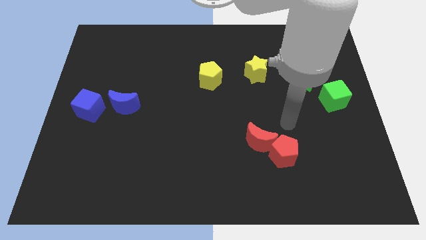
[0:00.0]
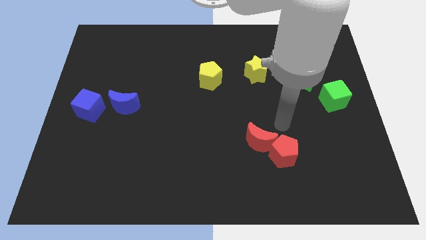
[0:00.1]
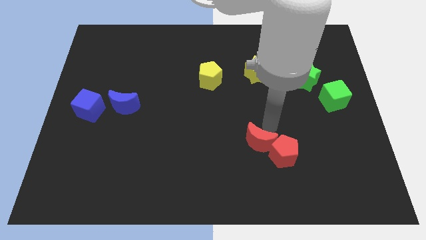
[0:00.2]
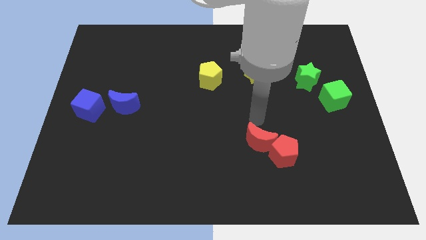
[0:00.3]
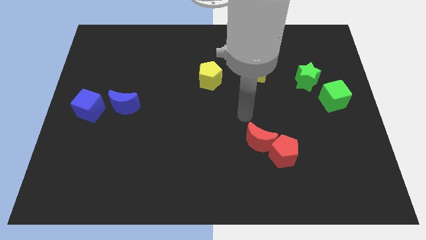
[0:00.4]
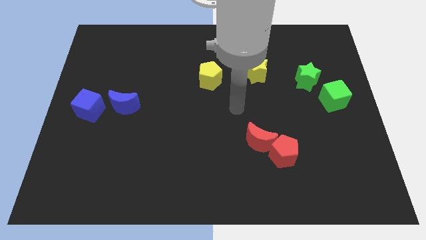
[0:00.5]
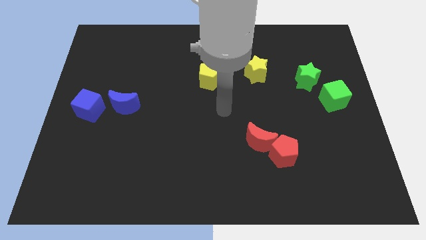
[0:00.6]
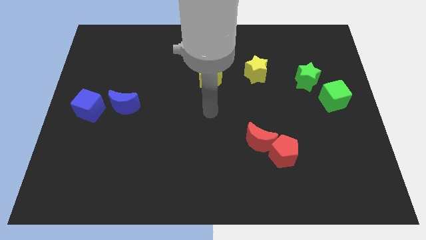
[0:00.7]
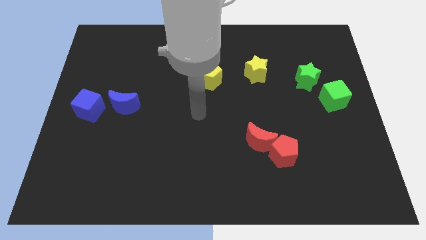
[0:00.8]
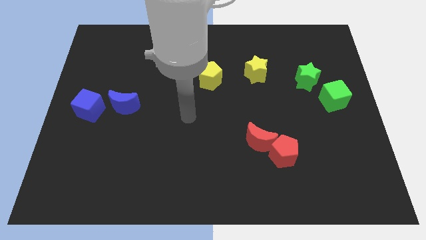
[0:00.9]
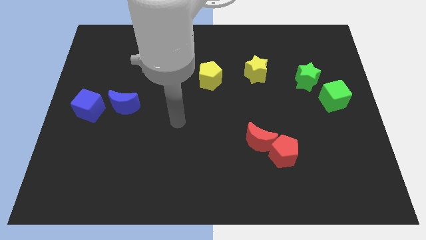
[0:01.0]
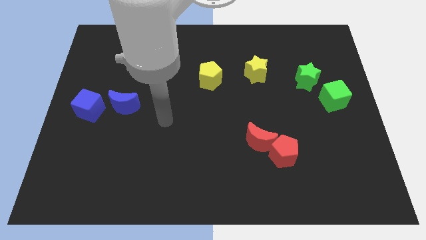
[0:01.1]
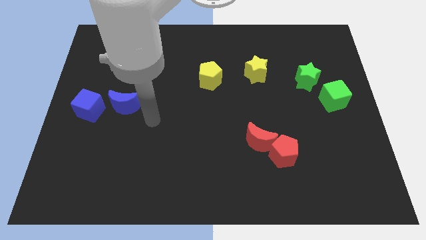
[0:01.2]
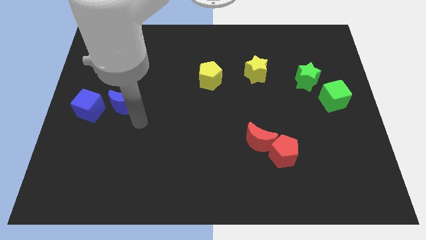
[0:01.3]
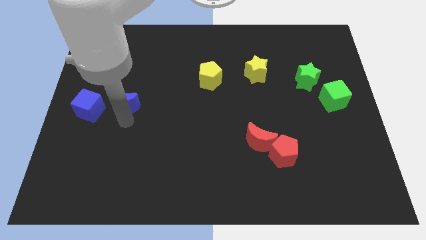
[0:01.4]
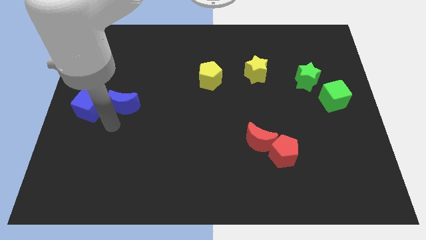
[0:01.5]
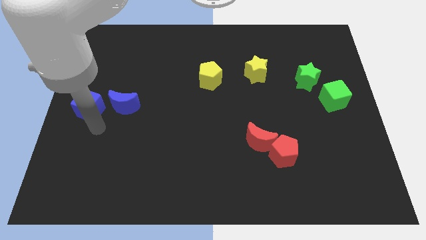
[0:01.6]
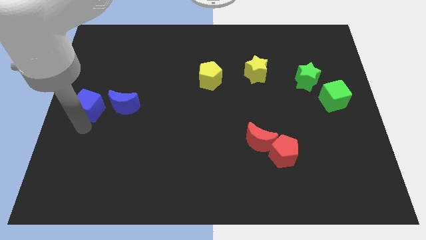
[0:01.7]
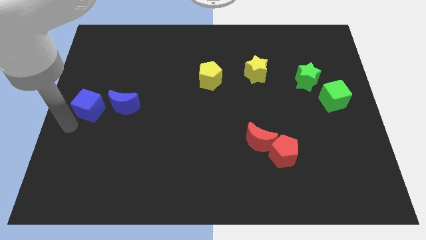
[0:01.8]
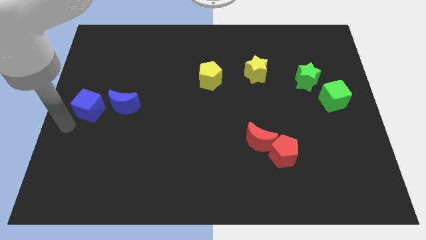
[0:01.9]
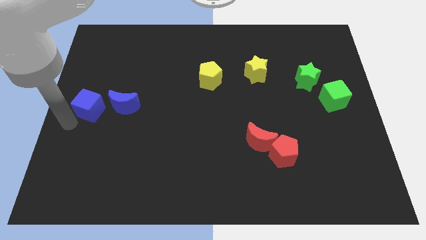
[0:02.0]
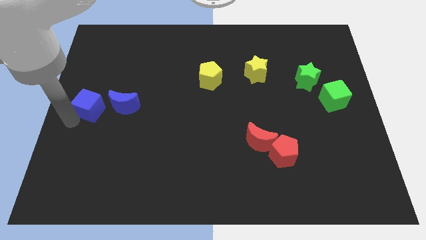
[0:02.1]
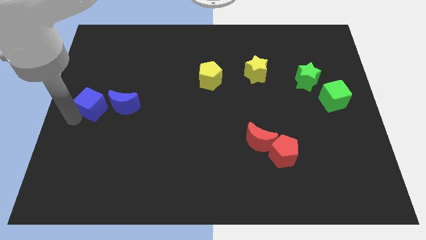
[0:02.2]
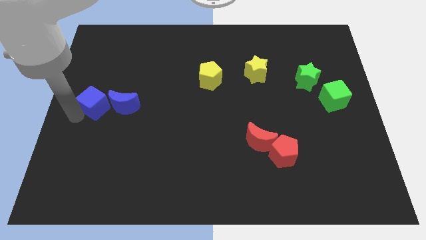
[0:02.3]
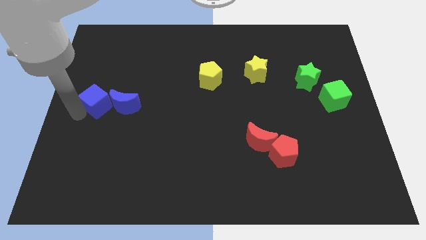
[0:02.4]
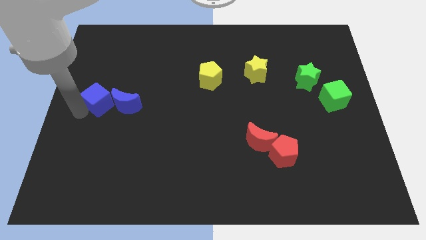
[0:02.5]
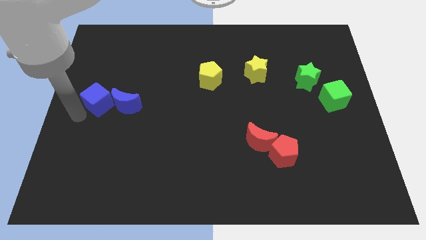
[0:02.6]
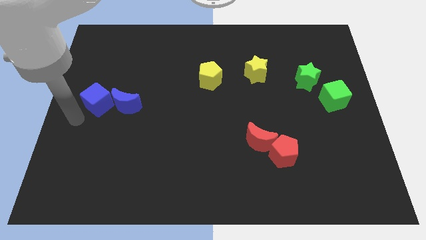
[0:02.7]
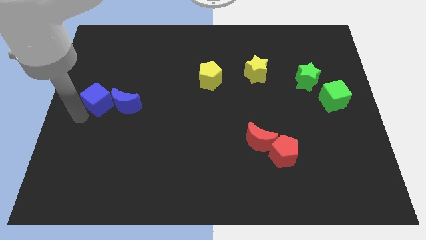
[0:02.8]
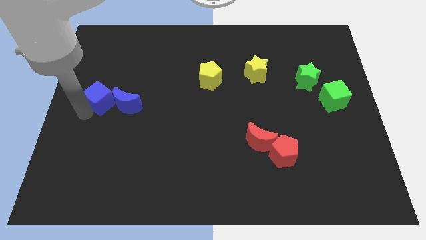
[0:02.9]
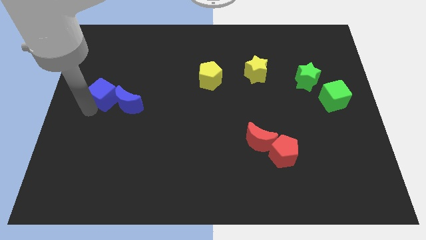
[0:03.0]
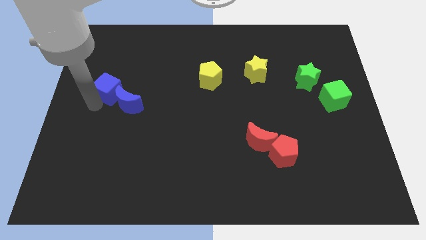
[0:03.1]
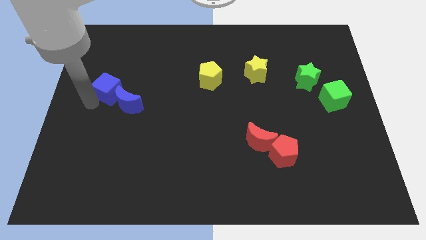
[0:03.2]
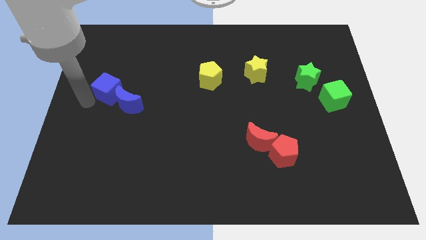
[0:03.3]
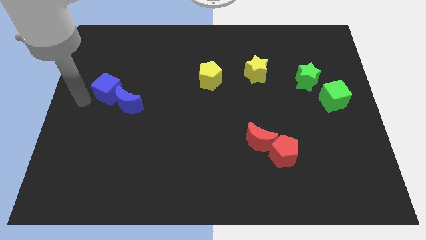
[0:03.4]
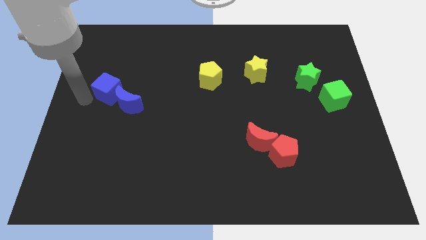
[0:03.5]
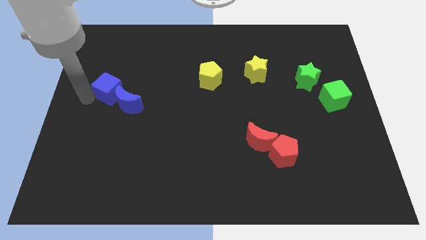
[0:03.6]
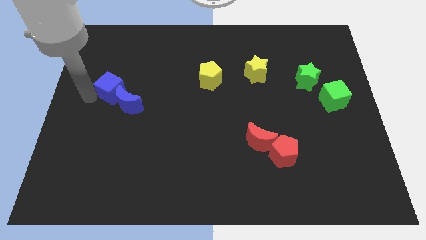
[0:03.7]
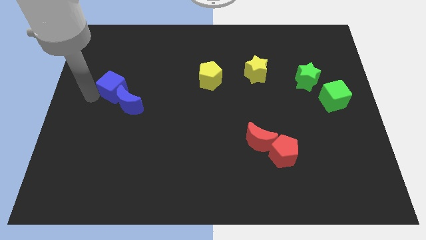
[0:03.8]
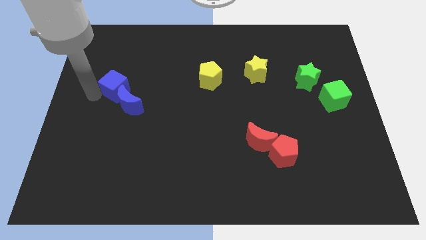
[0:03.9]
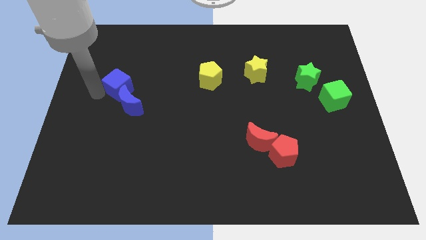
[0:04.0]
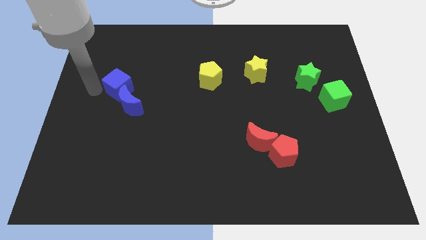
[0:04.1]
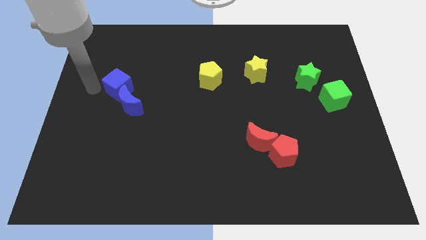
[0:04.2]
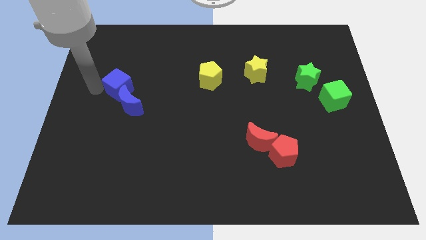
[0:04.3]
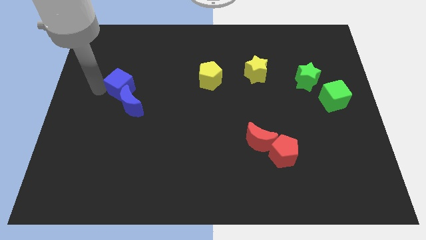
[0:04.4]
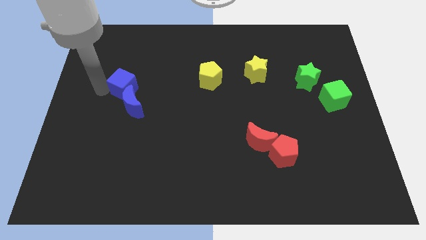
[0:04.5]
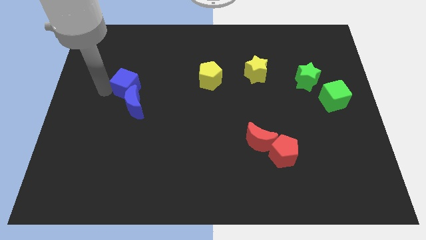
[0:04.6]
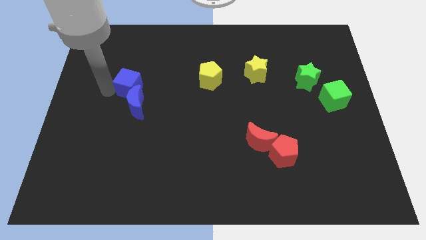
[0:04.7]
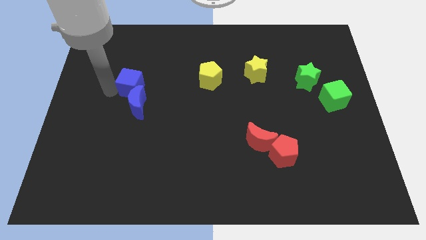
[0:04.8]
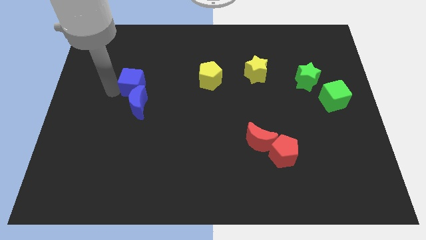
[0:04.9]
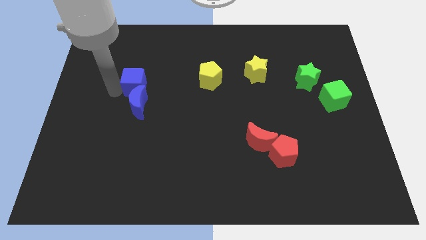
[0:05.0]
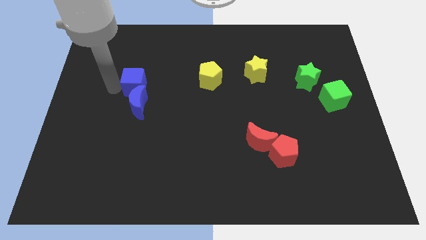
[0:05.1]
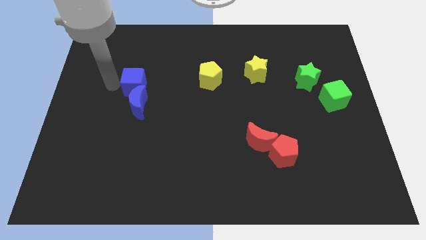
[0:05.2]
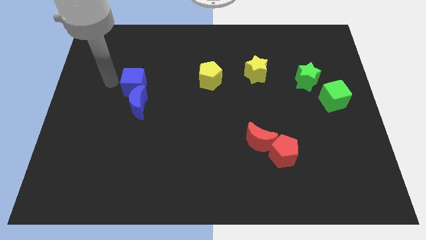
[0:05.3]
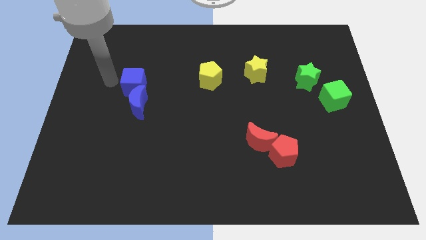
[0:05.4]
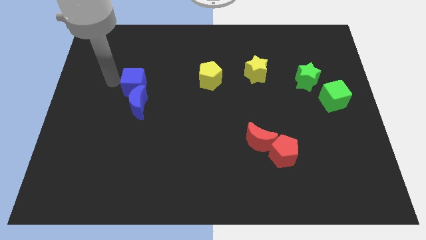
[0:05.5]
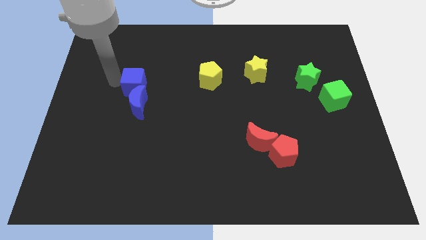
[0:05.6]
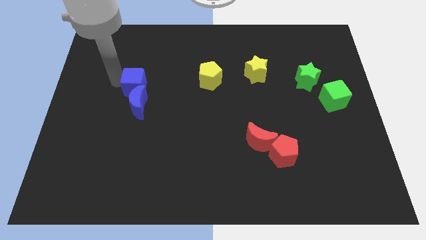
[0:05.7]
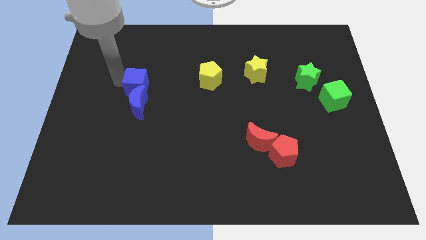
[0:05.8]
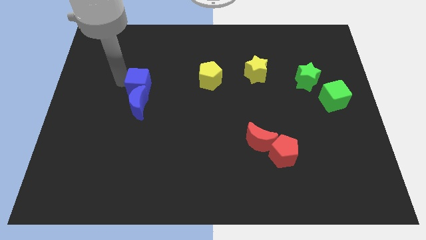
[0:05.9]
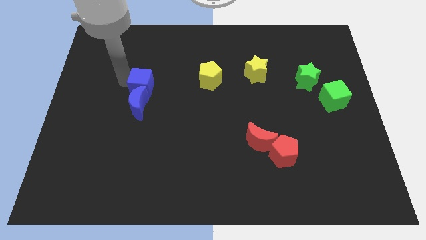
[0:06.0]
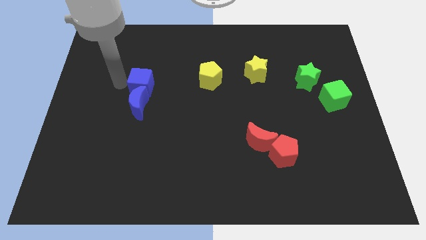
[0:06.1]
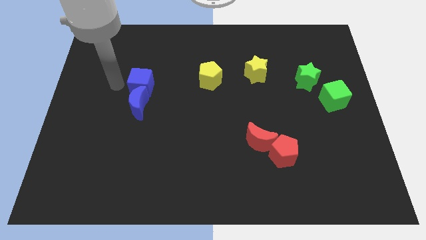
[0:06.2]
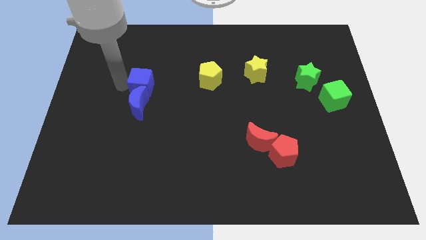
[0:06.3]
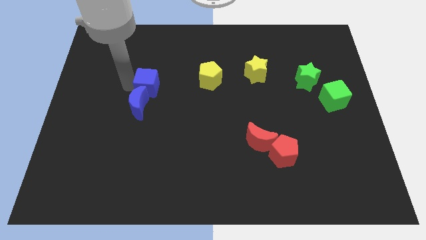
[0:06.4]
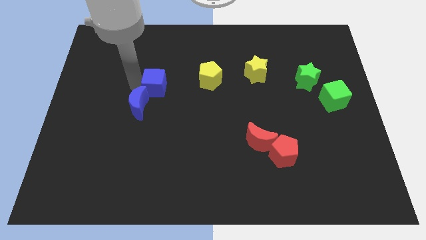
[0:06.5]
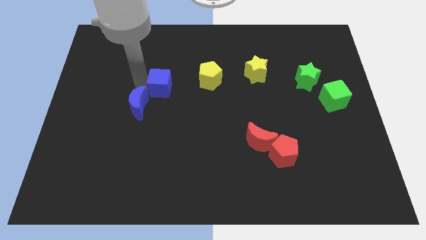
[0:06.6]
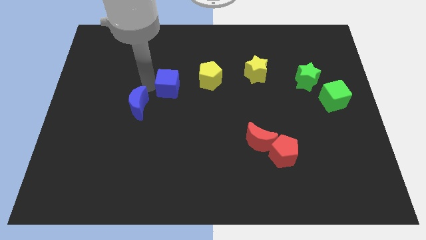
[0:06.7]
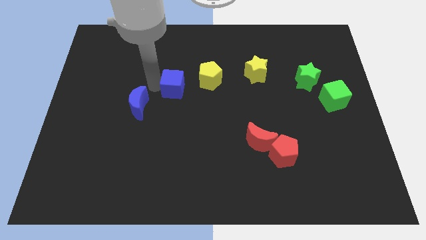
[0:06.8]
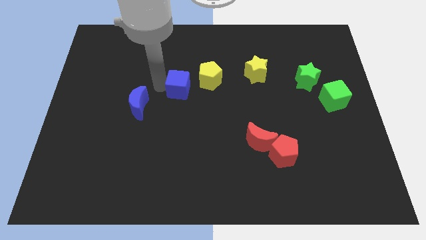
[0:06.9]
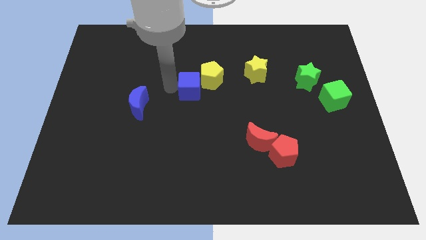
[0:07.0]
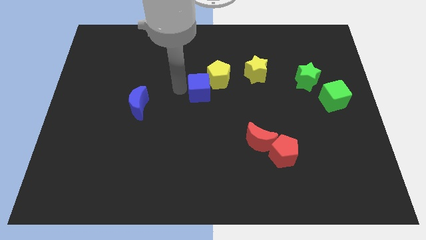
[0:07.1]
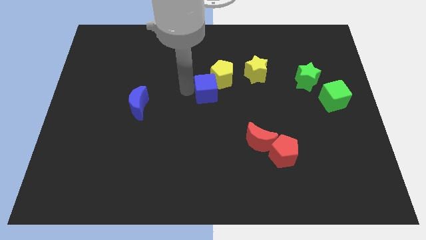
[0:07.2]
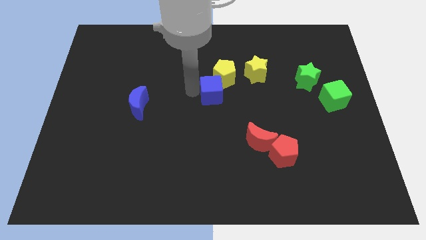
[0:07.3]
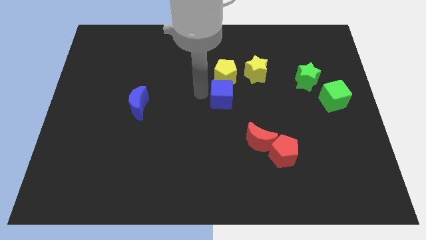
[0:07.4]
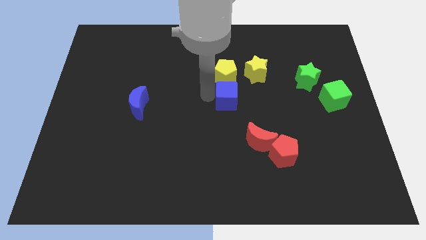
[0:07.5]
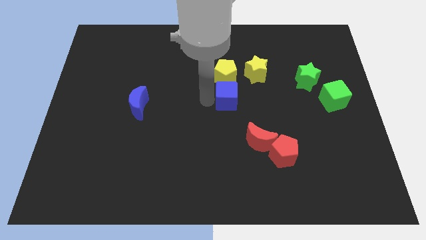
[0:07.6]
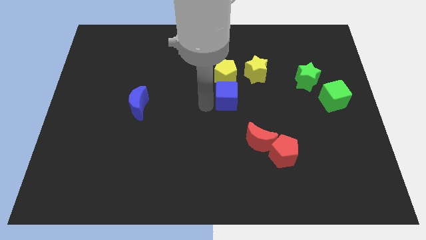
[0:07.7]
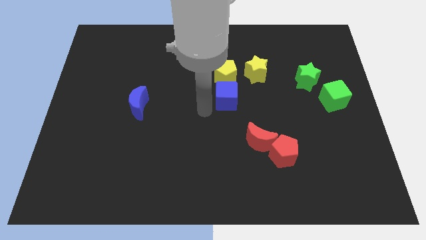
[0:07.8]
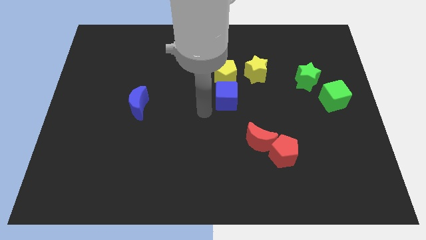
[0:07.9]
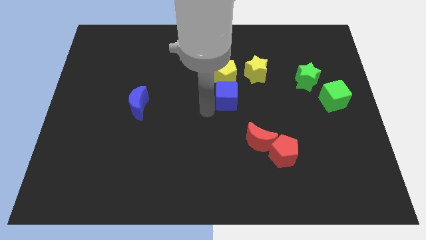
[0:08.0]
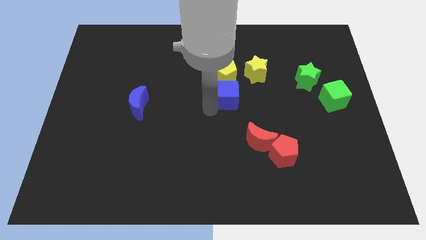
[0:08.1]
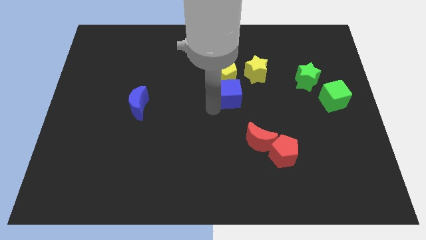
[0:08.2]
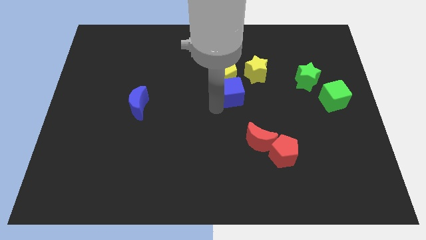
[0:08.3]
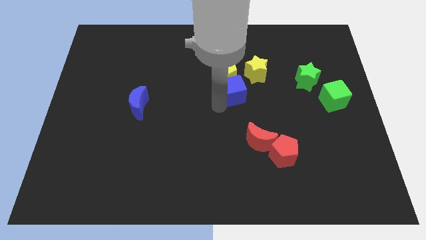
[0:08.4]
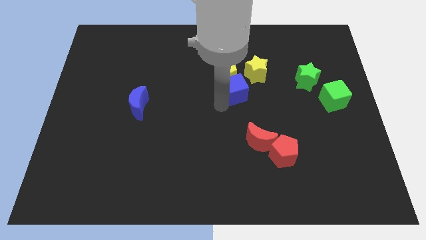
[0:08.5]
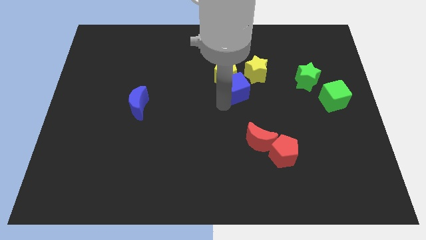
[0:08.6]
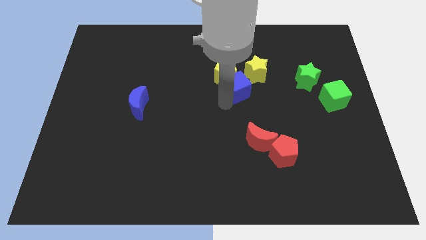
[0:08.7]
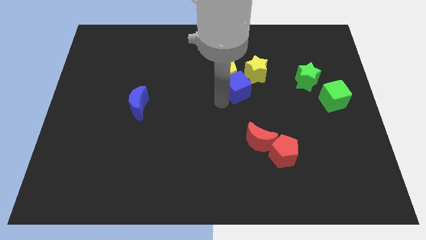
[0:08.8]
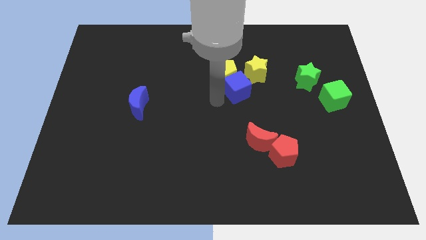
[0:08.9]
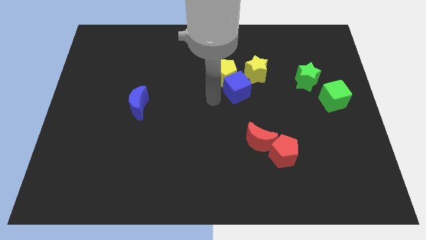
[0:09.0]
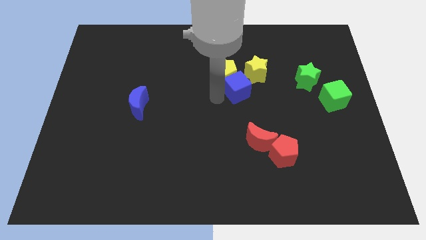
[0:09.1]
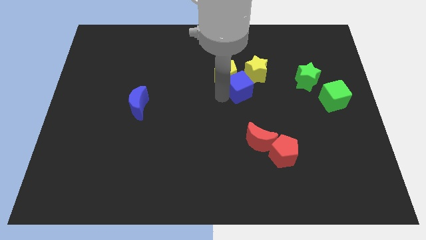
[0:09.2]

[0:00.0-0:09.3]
push the blue cube right of the yellow pentagon
